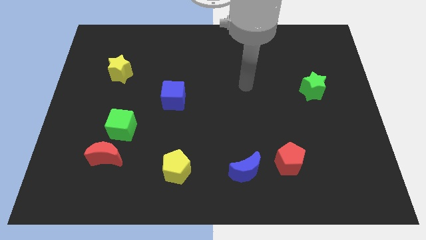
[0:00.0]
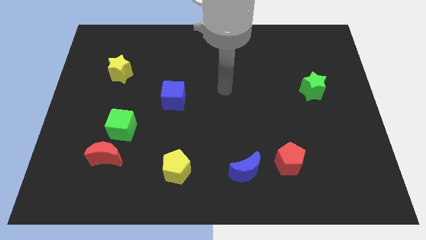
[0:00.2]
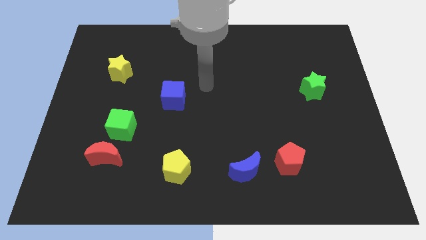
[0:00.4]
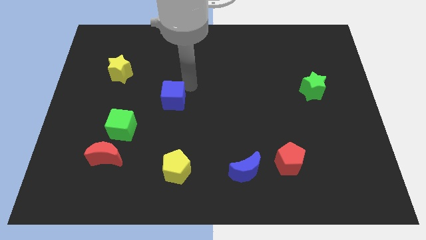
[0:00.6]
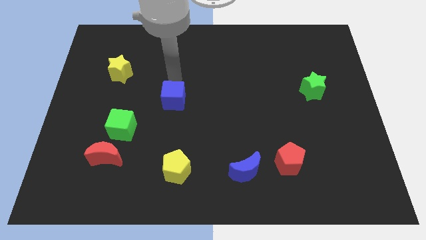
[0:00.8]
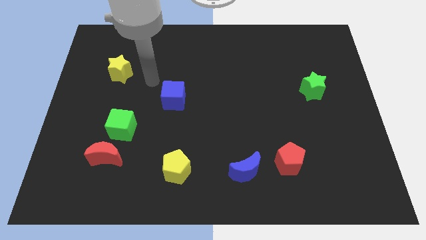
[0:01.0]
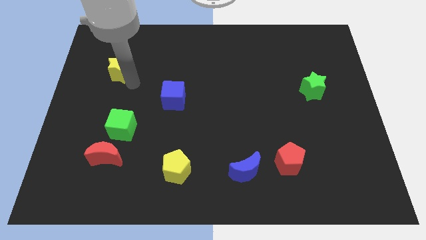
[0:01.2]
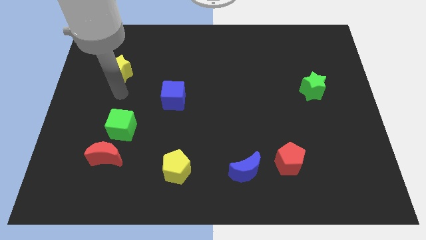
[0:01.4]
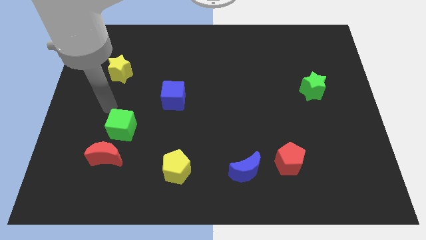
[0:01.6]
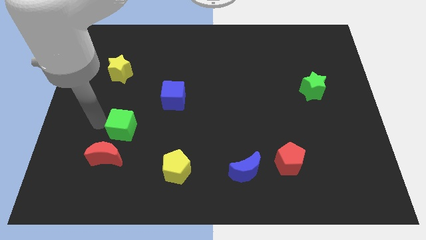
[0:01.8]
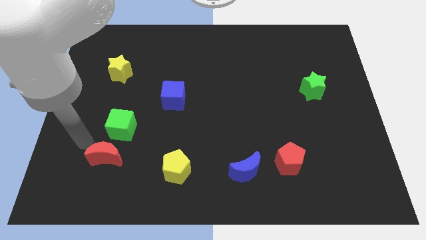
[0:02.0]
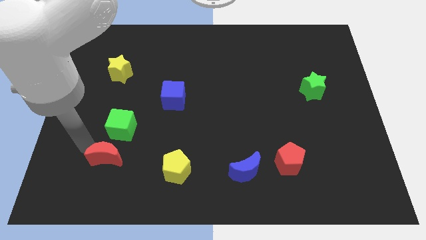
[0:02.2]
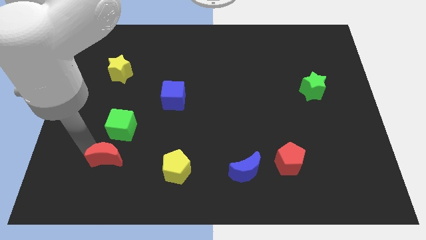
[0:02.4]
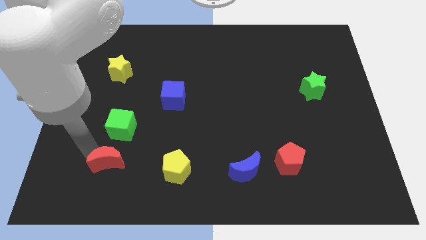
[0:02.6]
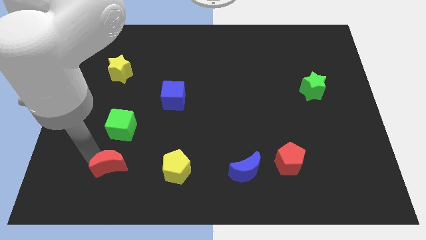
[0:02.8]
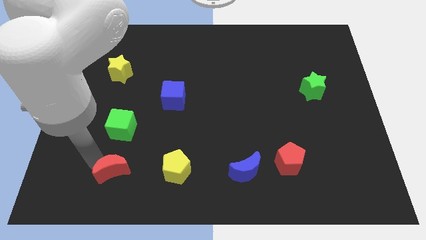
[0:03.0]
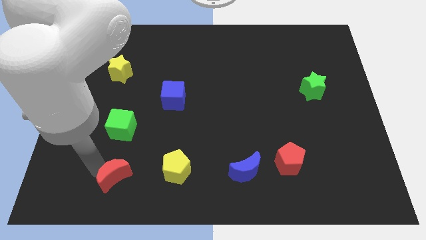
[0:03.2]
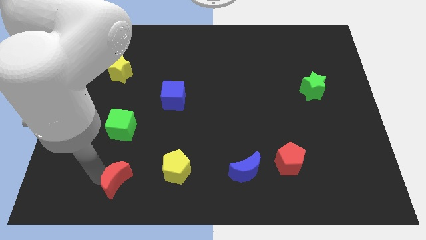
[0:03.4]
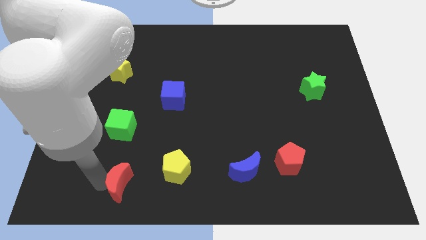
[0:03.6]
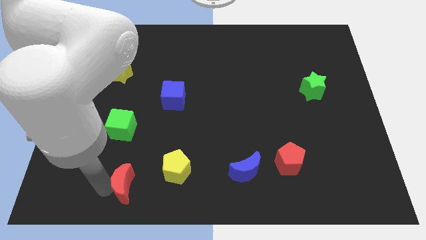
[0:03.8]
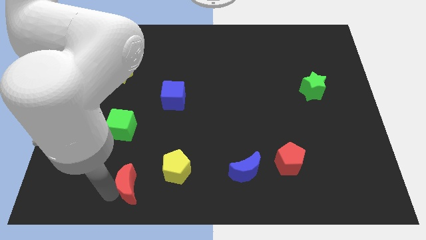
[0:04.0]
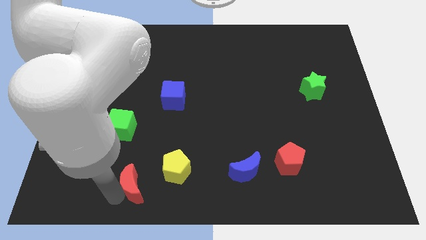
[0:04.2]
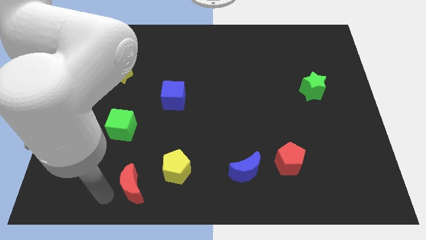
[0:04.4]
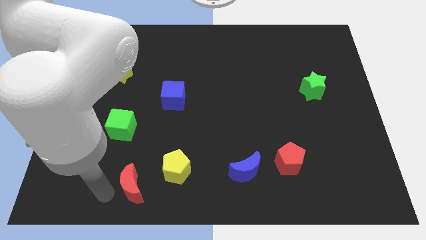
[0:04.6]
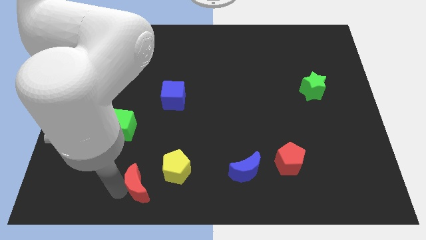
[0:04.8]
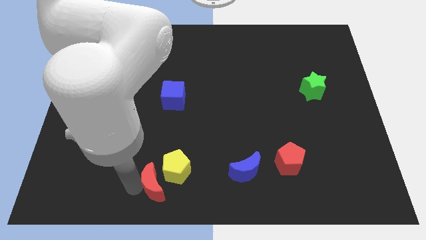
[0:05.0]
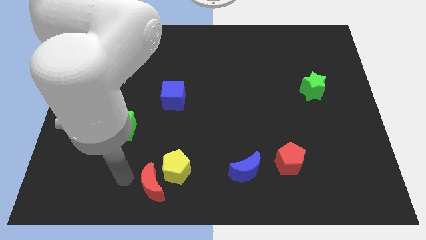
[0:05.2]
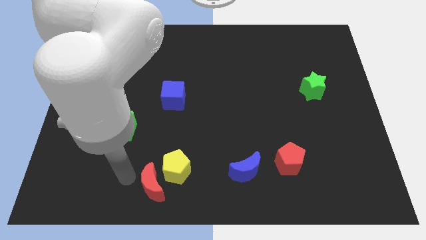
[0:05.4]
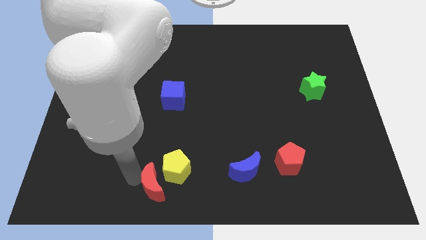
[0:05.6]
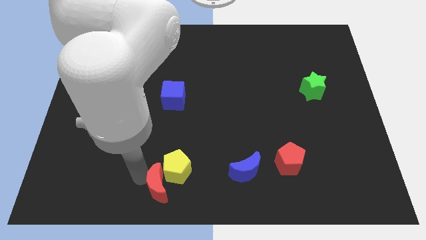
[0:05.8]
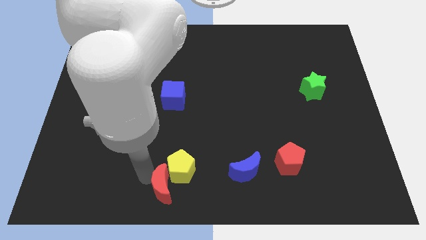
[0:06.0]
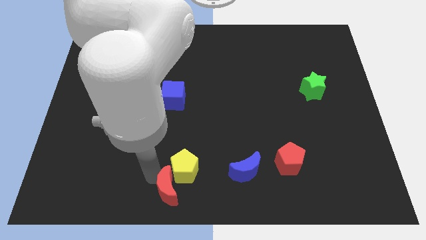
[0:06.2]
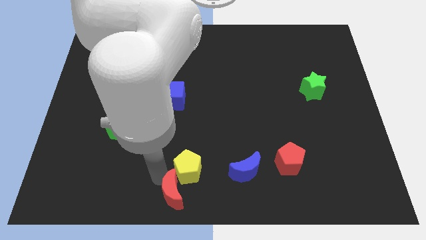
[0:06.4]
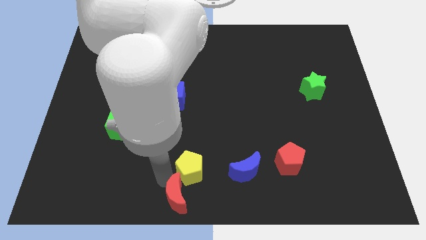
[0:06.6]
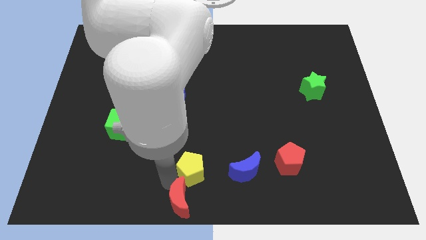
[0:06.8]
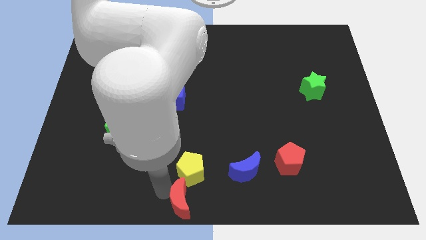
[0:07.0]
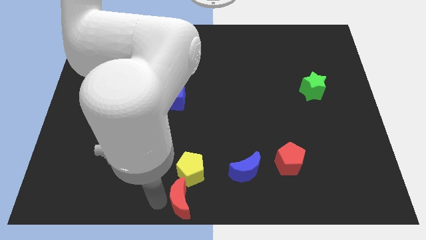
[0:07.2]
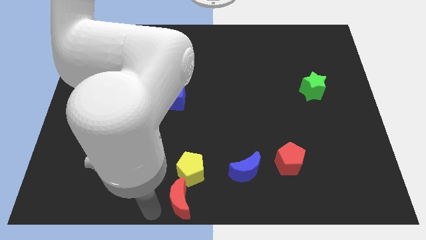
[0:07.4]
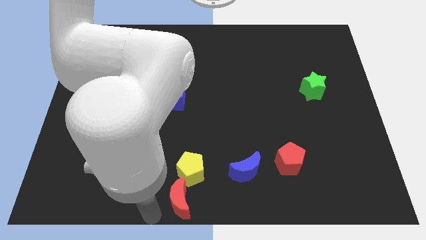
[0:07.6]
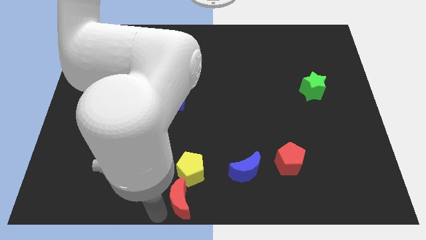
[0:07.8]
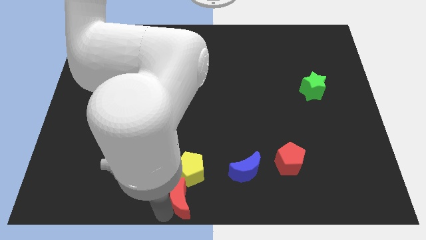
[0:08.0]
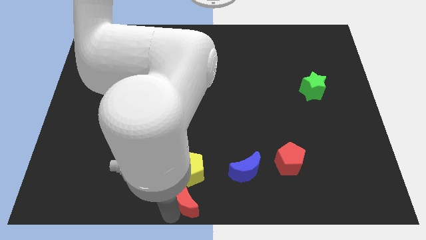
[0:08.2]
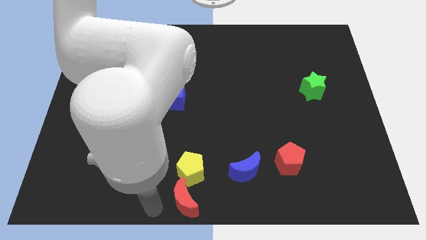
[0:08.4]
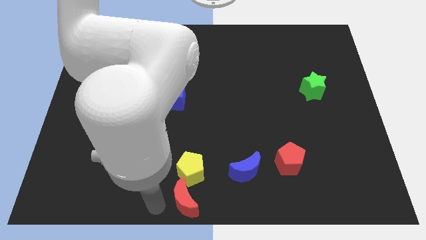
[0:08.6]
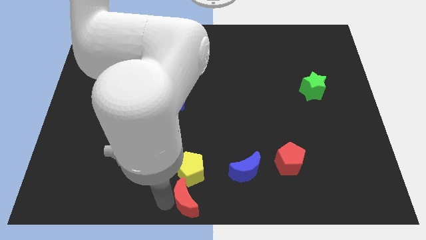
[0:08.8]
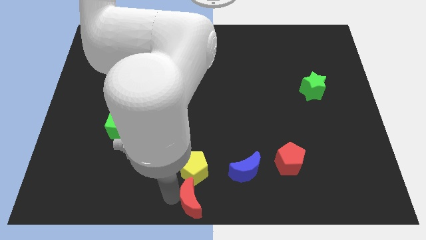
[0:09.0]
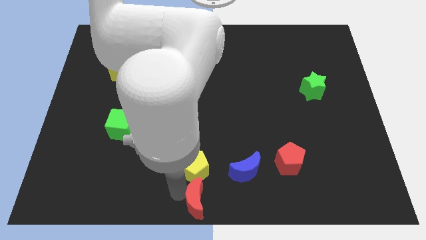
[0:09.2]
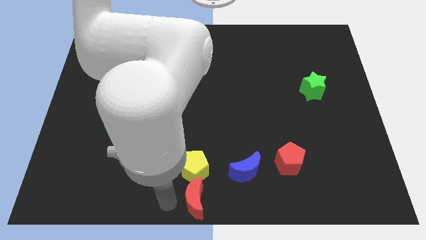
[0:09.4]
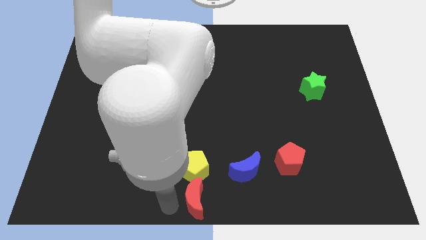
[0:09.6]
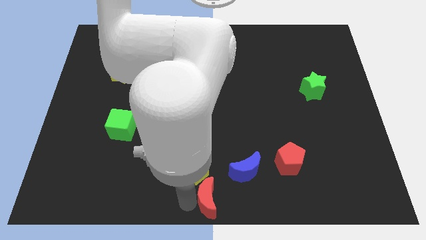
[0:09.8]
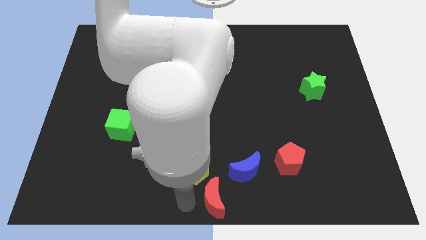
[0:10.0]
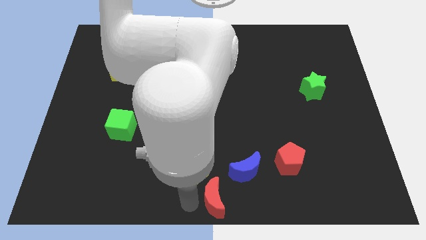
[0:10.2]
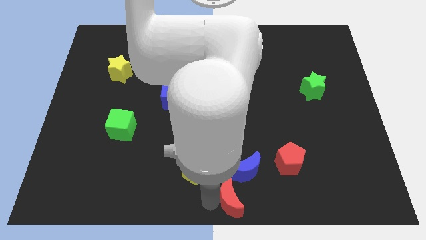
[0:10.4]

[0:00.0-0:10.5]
slide the red moon to the right

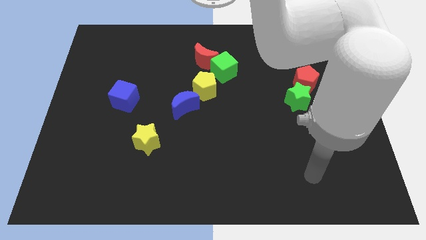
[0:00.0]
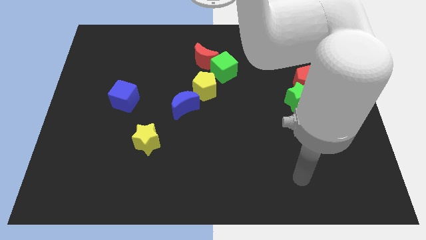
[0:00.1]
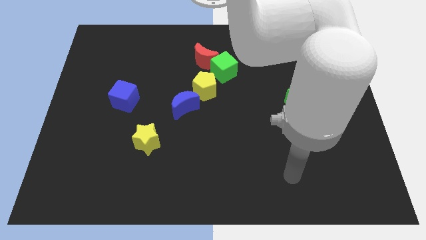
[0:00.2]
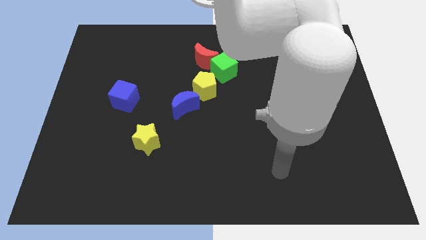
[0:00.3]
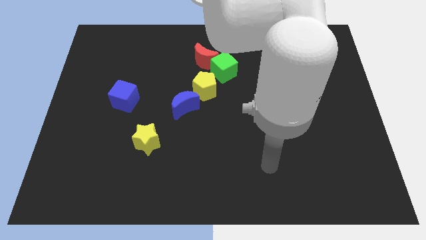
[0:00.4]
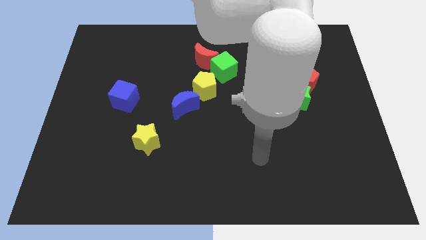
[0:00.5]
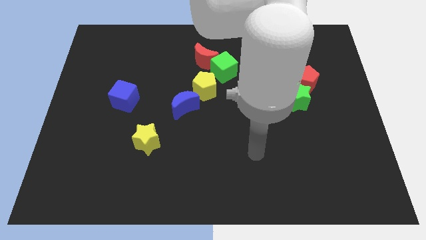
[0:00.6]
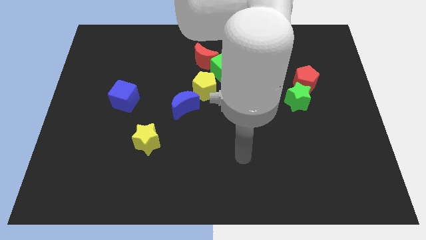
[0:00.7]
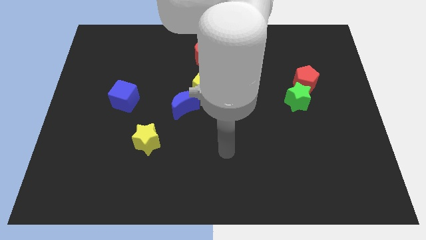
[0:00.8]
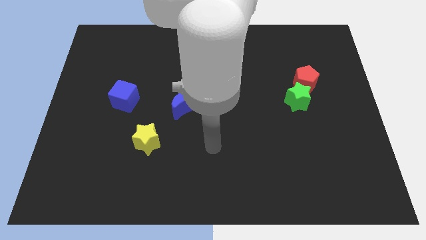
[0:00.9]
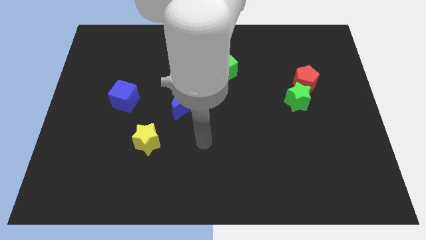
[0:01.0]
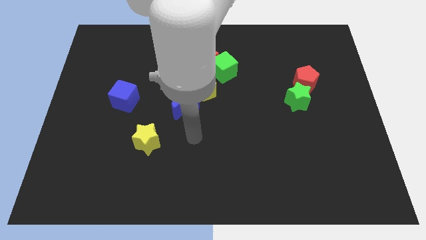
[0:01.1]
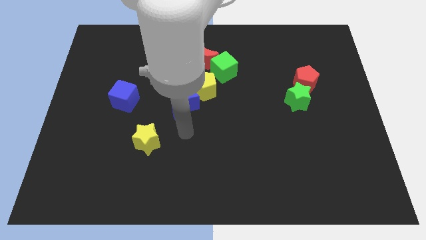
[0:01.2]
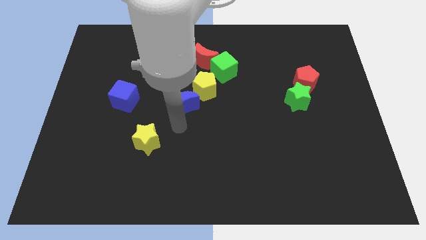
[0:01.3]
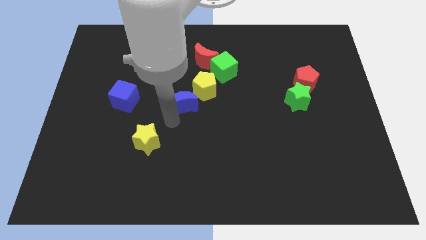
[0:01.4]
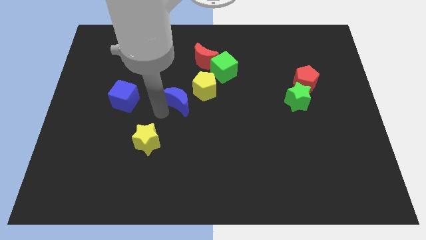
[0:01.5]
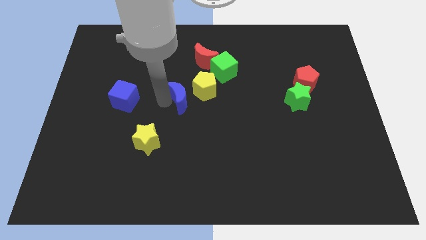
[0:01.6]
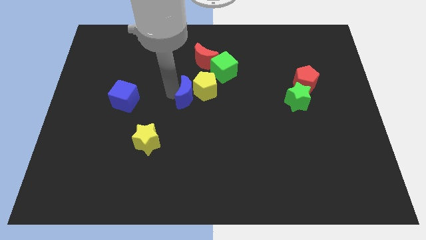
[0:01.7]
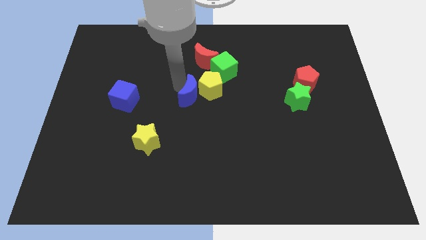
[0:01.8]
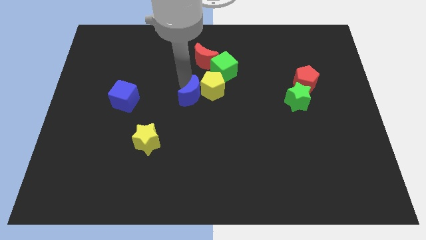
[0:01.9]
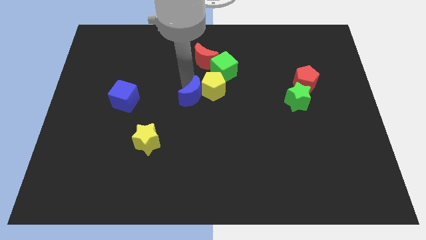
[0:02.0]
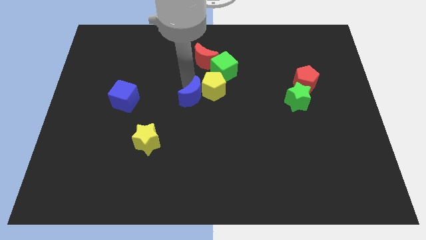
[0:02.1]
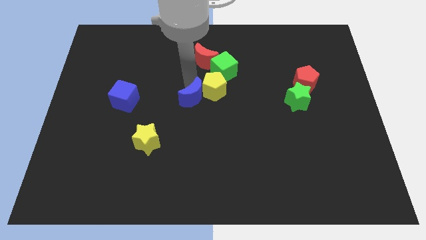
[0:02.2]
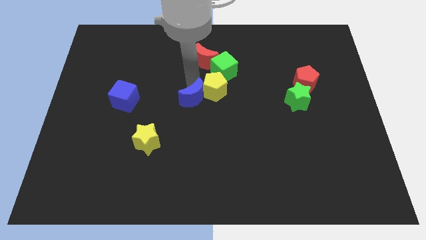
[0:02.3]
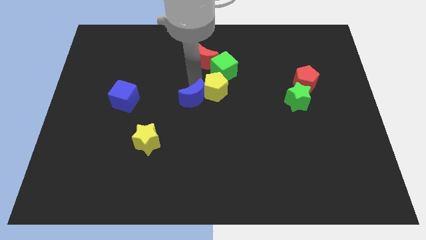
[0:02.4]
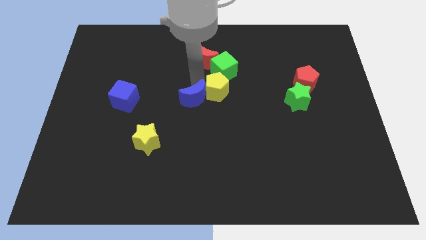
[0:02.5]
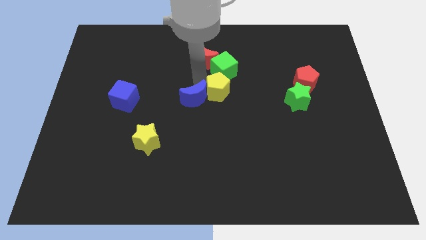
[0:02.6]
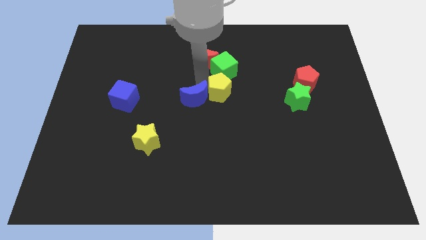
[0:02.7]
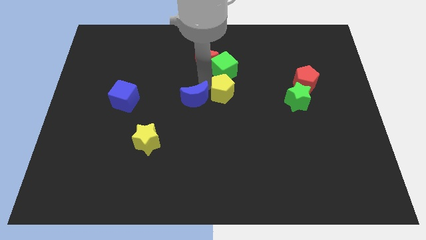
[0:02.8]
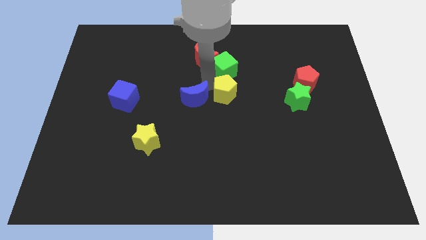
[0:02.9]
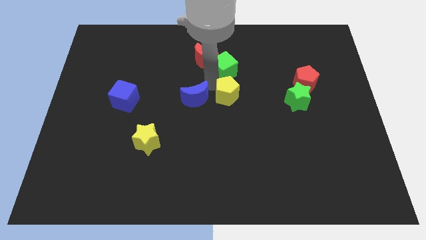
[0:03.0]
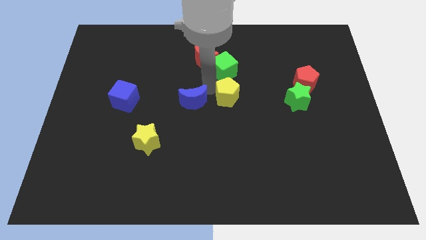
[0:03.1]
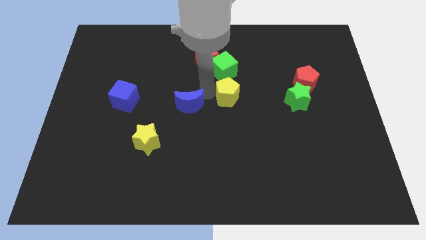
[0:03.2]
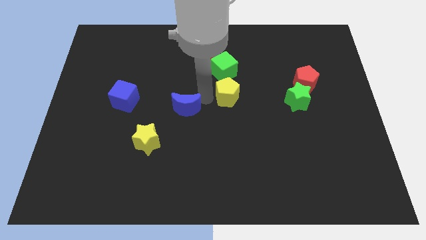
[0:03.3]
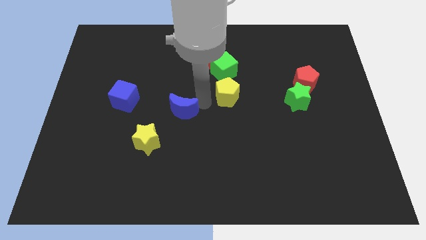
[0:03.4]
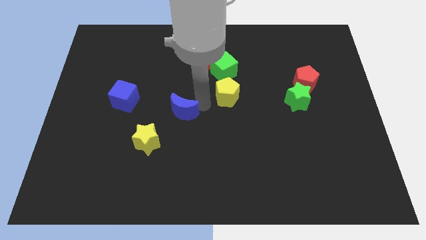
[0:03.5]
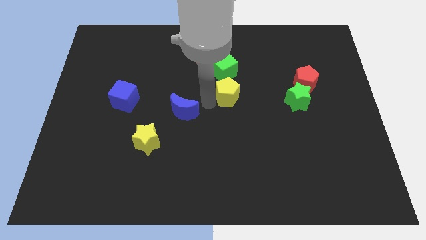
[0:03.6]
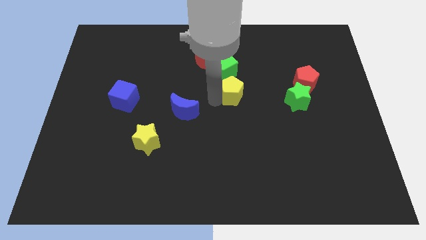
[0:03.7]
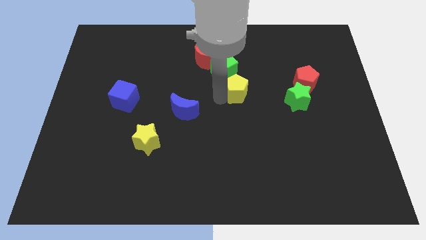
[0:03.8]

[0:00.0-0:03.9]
push the yellow pentagon right a bit
